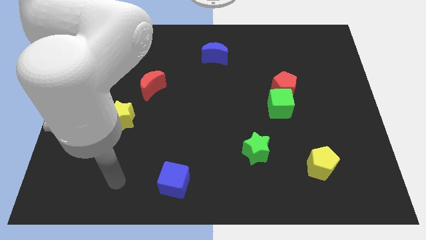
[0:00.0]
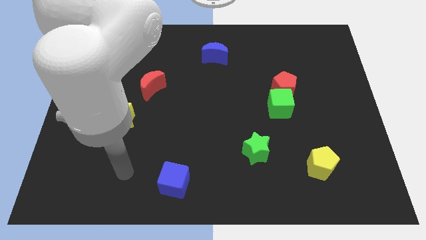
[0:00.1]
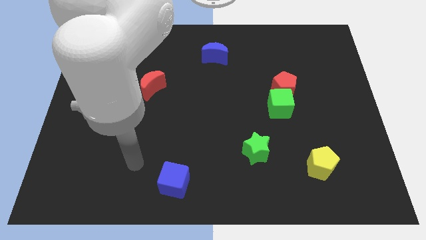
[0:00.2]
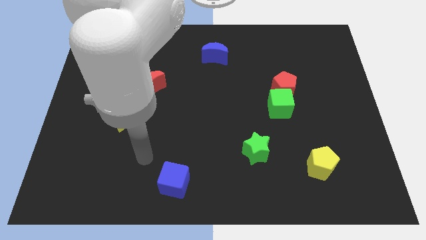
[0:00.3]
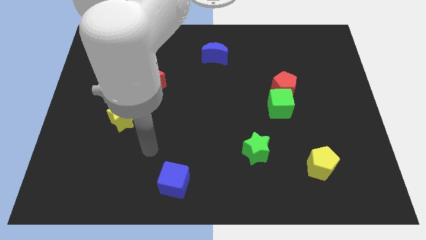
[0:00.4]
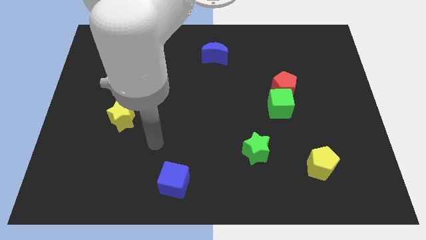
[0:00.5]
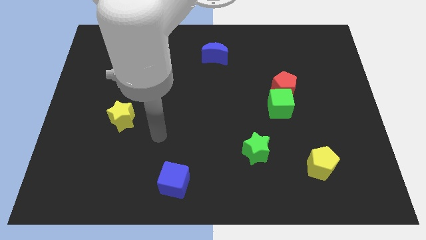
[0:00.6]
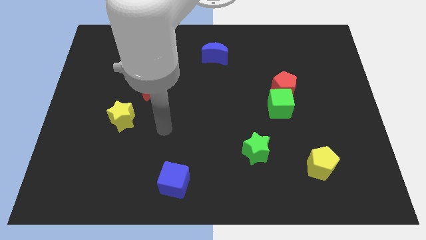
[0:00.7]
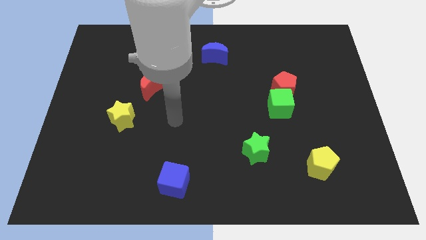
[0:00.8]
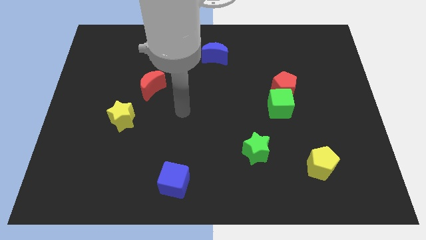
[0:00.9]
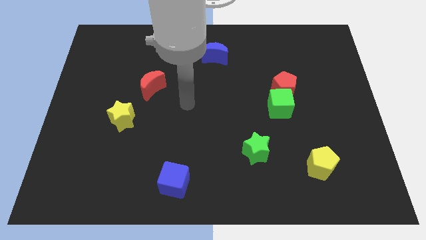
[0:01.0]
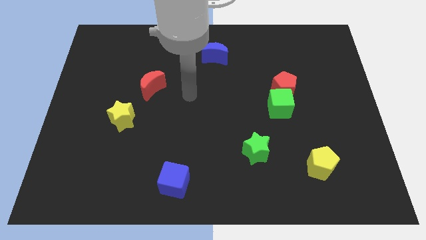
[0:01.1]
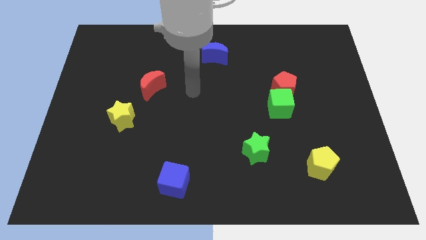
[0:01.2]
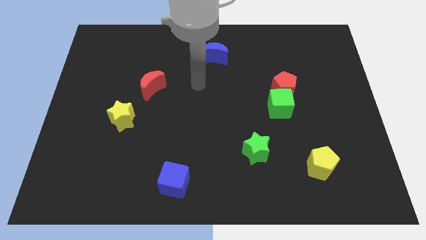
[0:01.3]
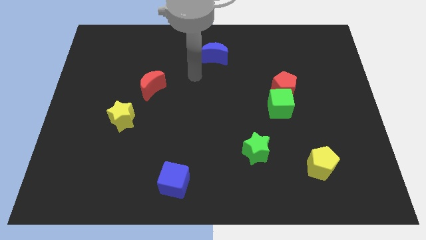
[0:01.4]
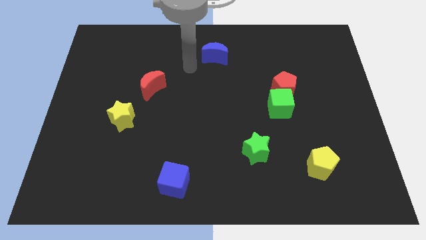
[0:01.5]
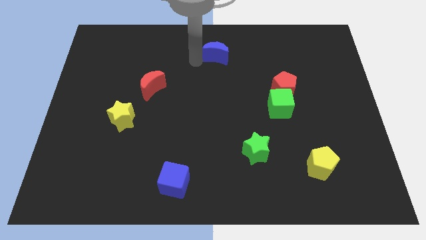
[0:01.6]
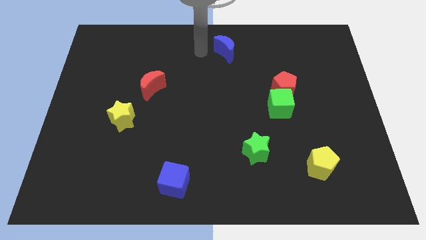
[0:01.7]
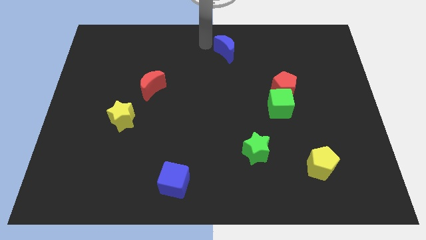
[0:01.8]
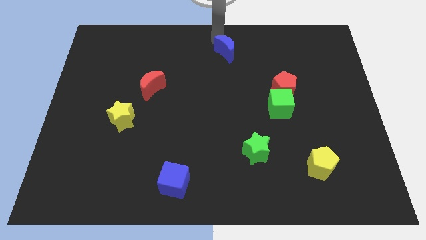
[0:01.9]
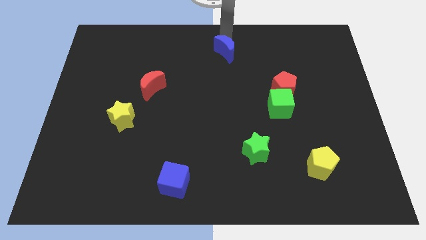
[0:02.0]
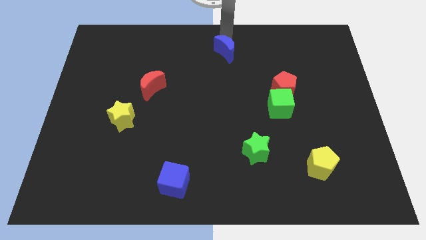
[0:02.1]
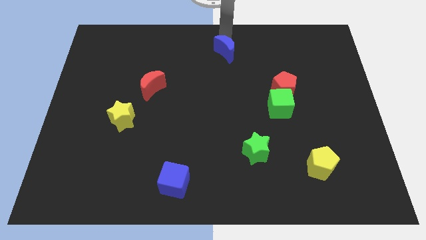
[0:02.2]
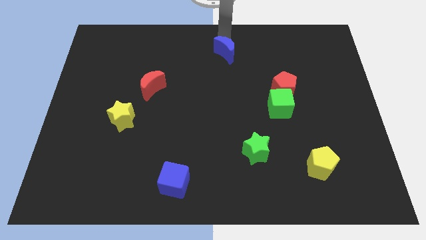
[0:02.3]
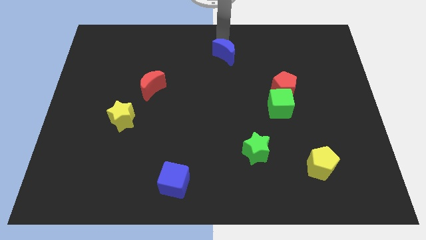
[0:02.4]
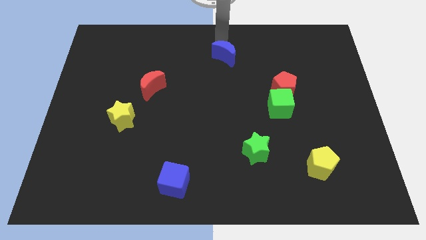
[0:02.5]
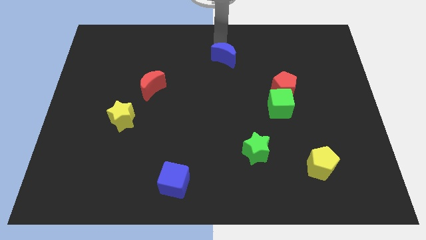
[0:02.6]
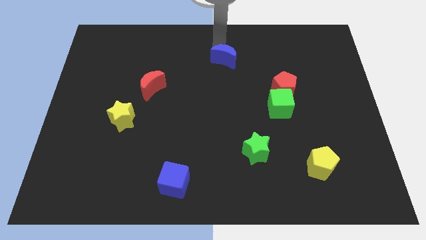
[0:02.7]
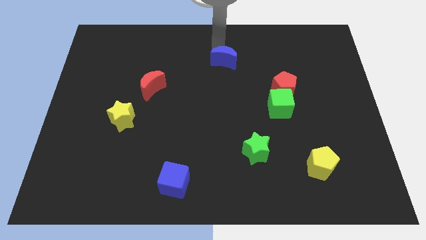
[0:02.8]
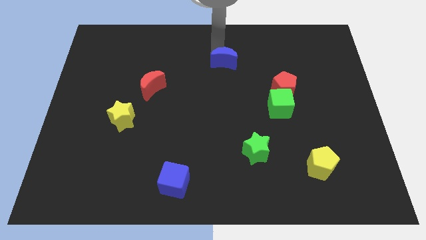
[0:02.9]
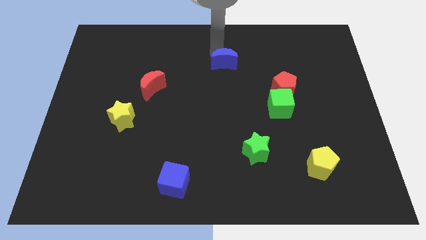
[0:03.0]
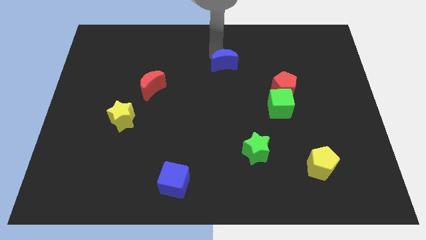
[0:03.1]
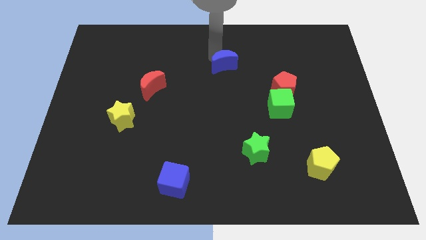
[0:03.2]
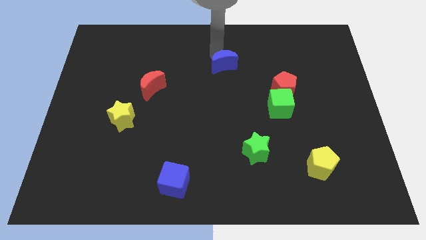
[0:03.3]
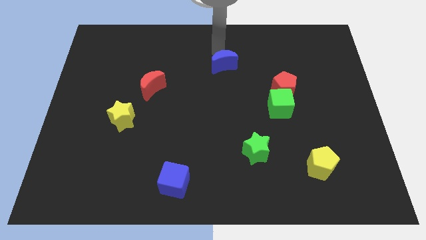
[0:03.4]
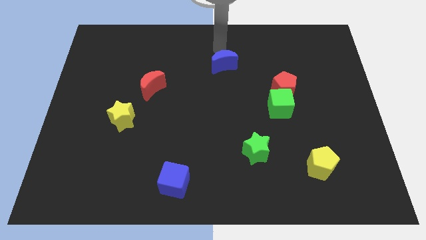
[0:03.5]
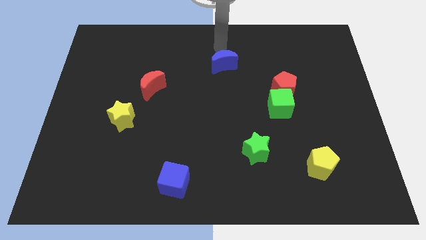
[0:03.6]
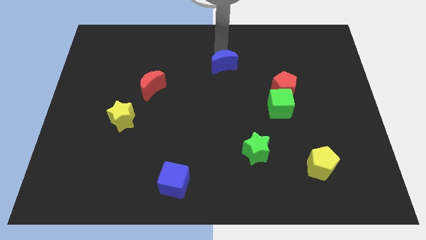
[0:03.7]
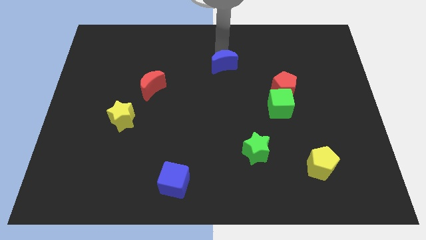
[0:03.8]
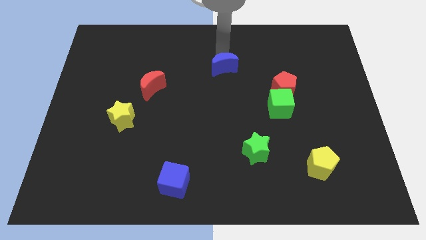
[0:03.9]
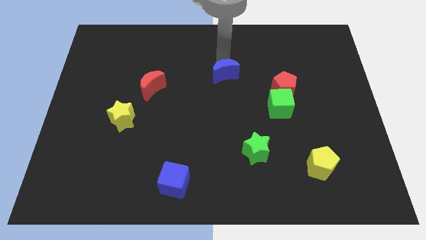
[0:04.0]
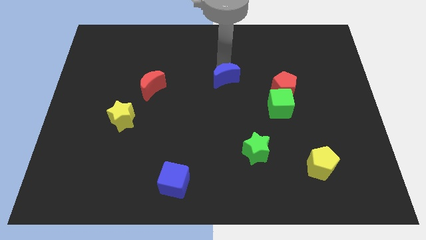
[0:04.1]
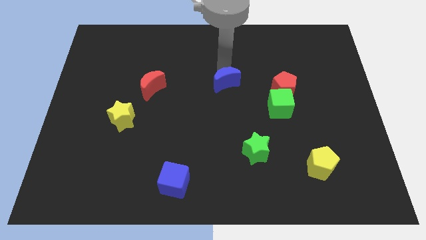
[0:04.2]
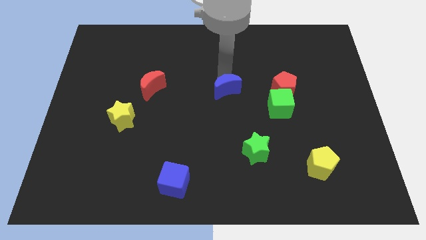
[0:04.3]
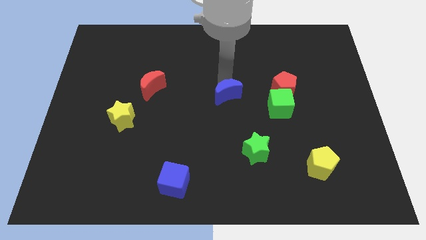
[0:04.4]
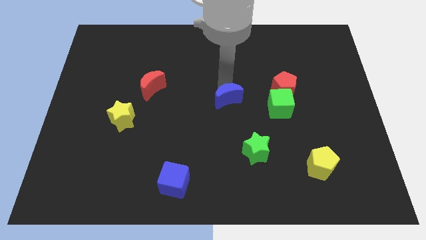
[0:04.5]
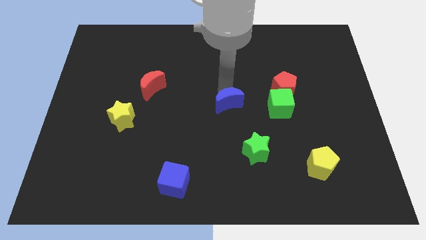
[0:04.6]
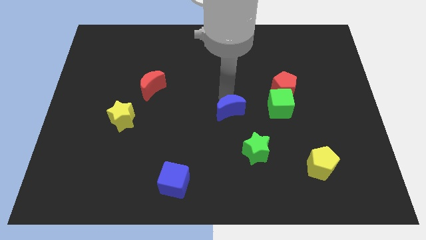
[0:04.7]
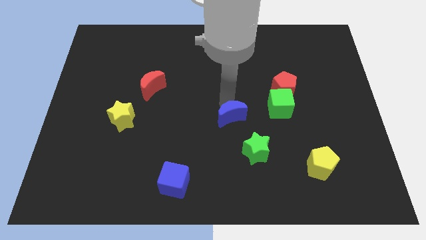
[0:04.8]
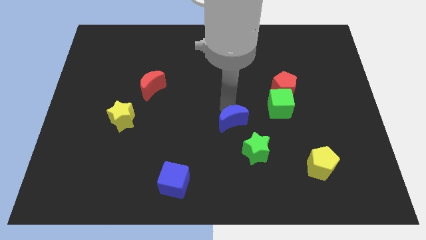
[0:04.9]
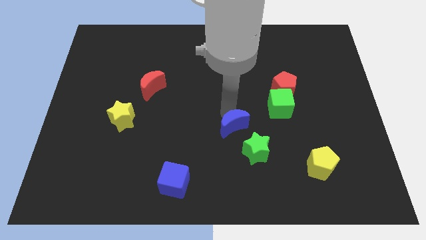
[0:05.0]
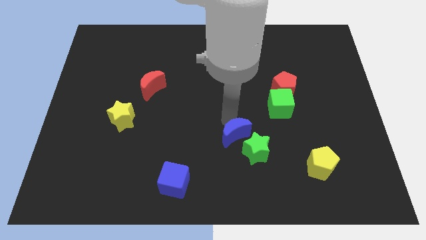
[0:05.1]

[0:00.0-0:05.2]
slide the blue moon next to the green star

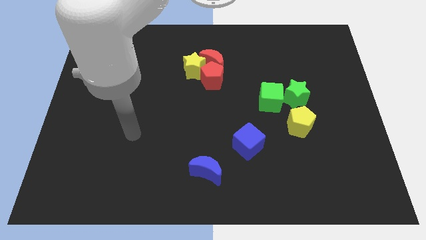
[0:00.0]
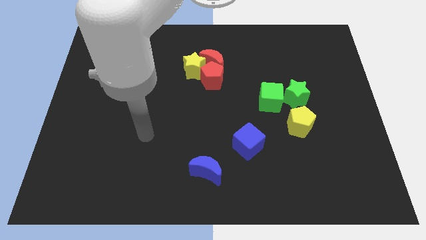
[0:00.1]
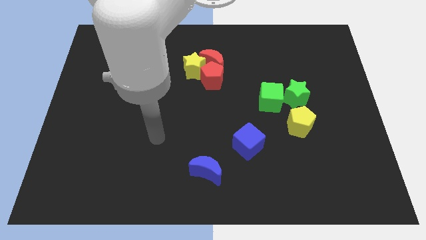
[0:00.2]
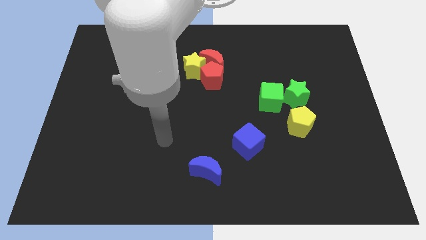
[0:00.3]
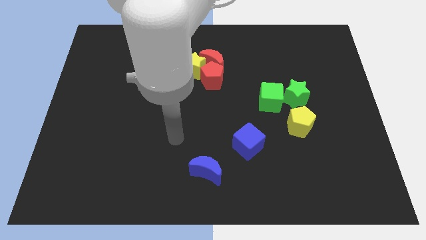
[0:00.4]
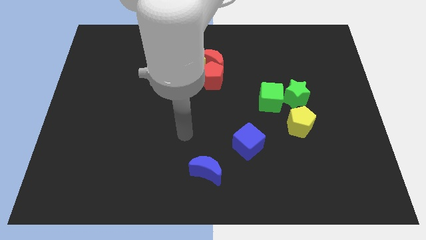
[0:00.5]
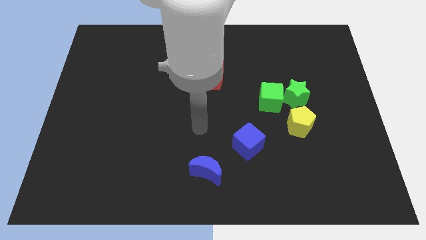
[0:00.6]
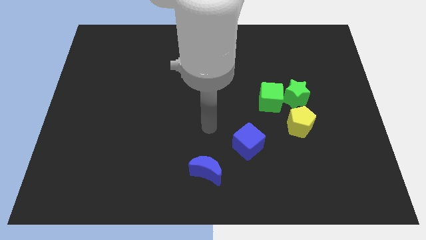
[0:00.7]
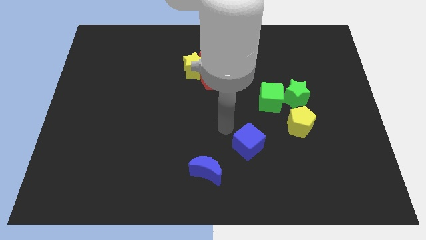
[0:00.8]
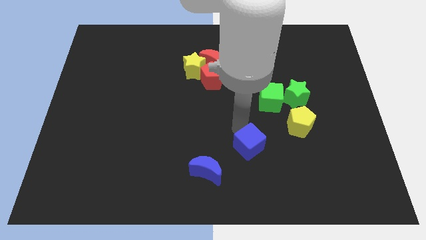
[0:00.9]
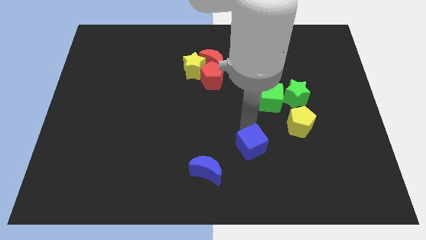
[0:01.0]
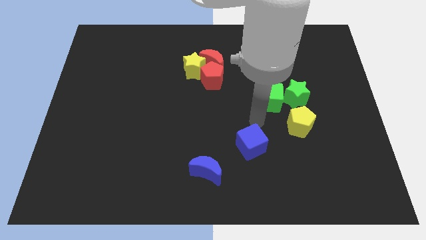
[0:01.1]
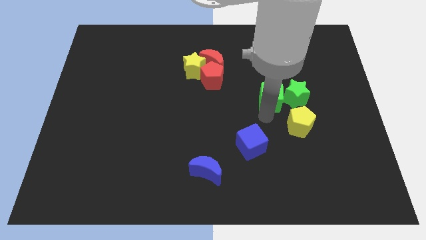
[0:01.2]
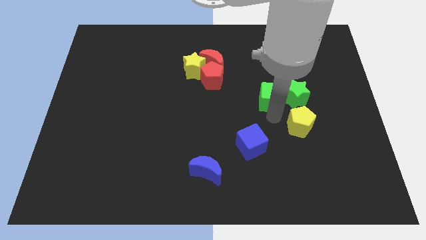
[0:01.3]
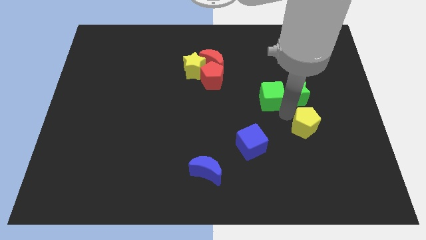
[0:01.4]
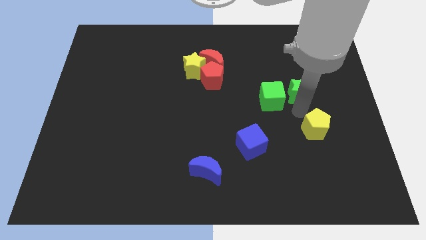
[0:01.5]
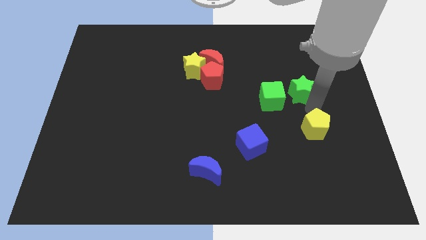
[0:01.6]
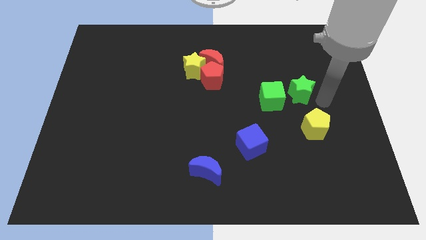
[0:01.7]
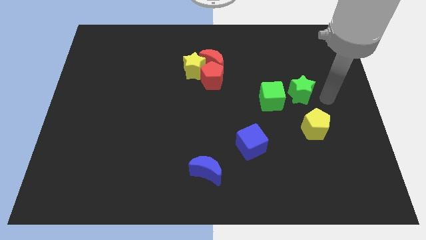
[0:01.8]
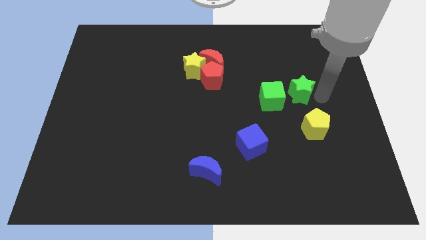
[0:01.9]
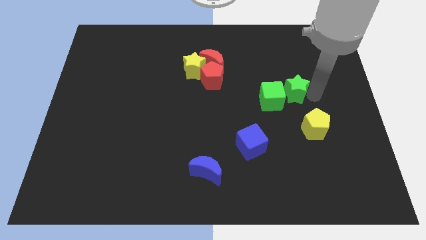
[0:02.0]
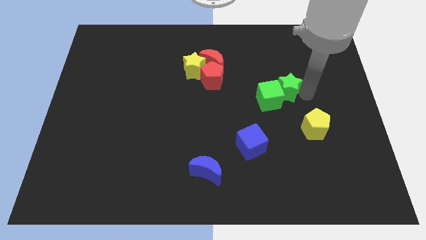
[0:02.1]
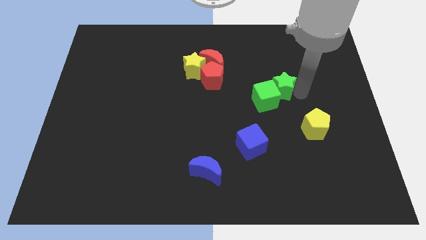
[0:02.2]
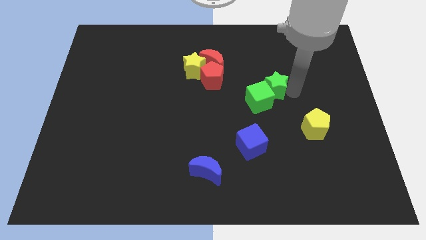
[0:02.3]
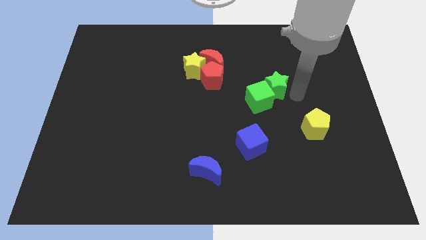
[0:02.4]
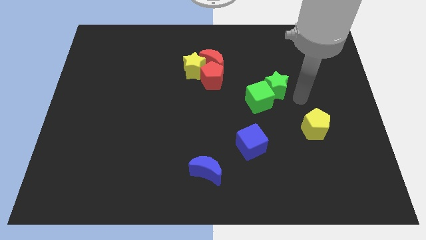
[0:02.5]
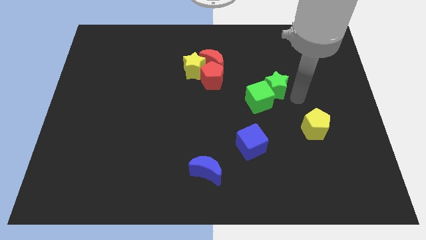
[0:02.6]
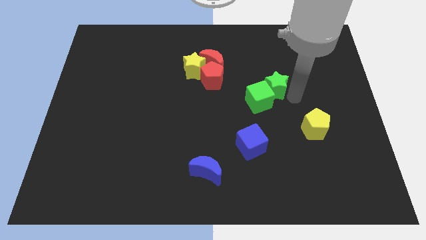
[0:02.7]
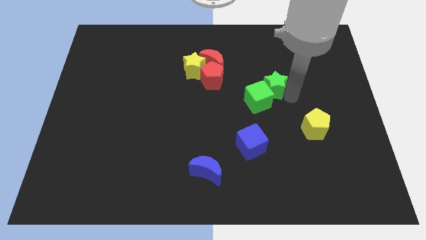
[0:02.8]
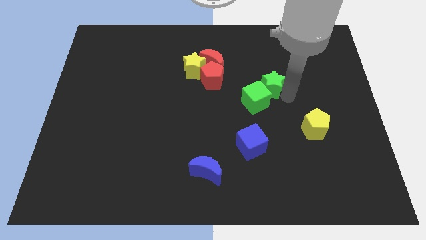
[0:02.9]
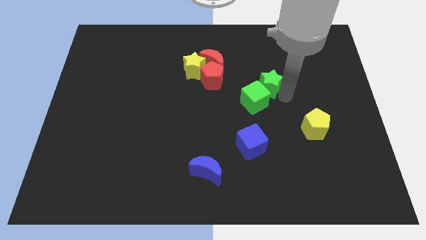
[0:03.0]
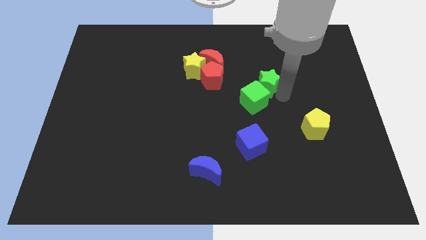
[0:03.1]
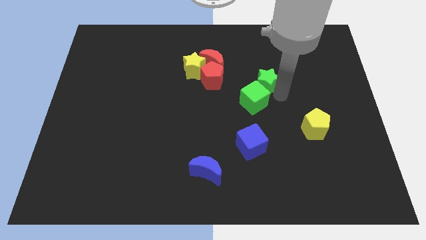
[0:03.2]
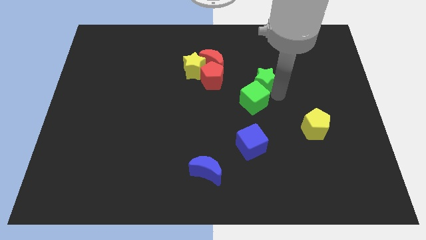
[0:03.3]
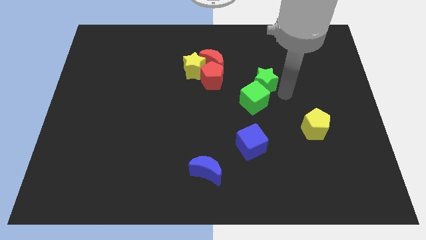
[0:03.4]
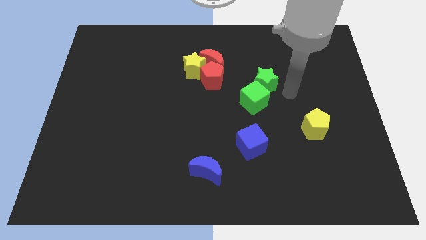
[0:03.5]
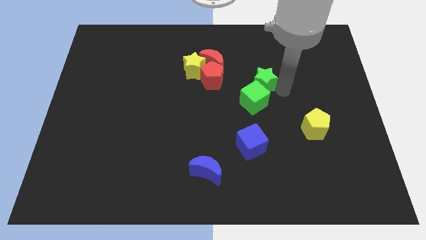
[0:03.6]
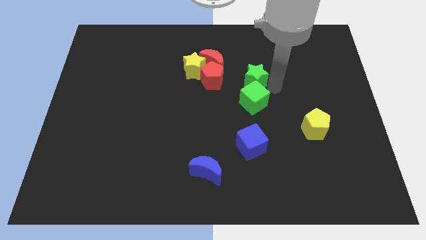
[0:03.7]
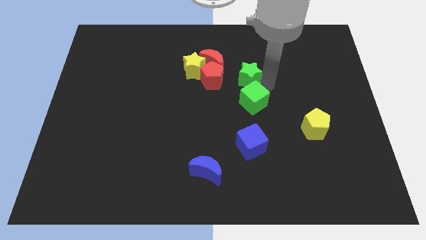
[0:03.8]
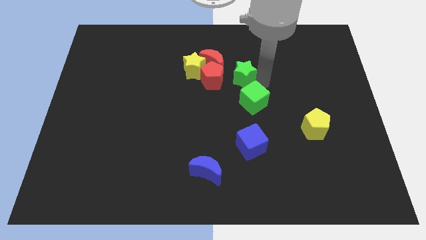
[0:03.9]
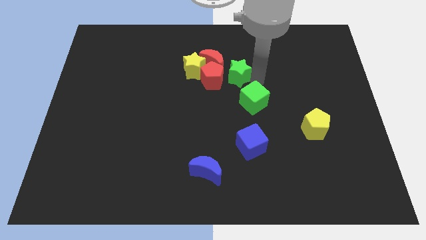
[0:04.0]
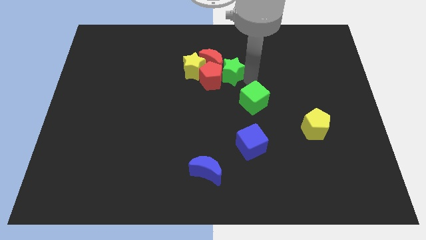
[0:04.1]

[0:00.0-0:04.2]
push the green star close to the red moon
